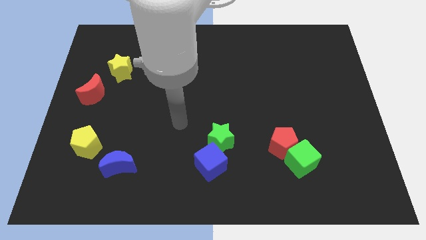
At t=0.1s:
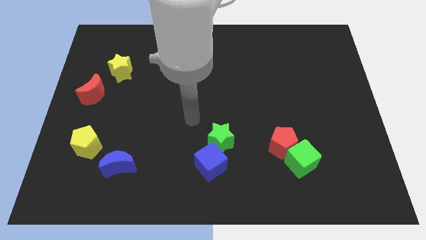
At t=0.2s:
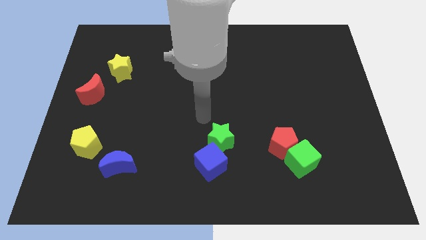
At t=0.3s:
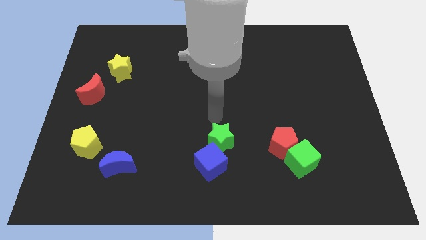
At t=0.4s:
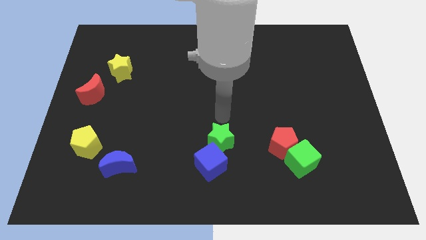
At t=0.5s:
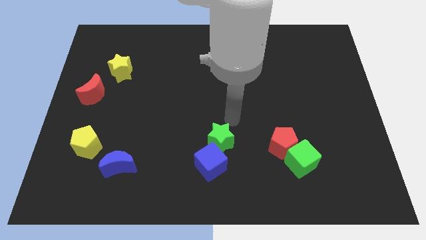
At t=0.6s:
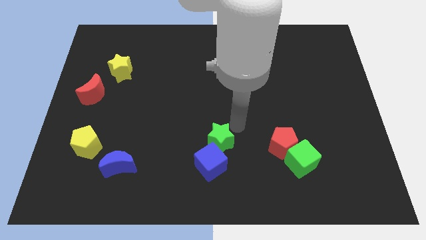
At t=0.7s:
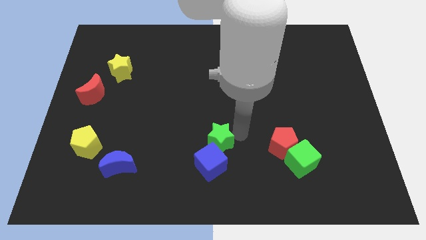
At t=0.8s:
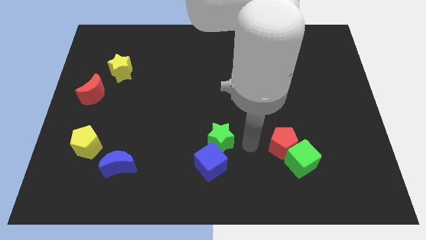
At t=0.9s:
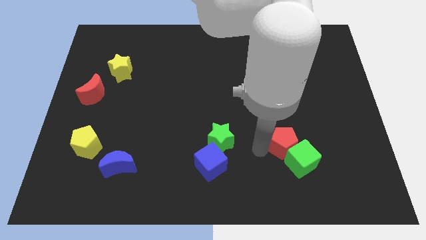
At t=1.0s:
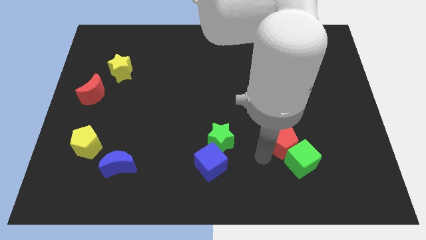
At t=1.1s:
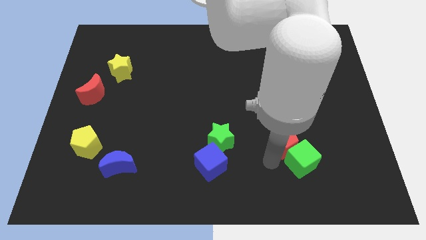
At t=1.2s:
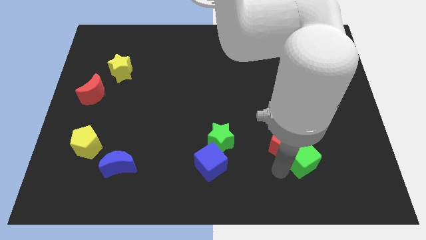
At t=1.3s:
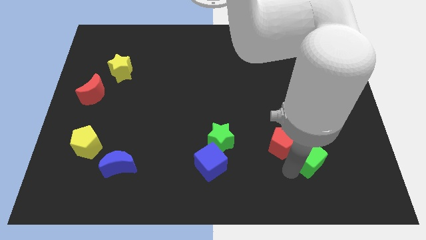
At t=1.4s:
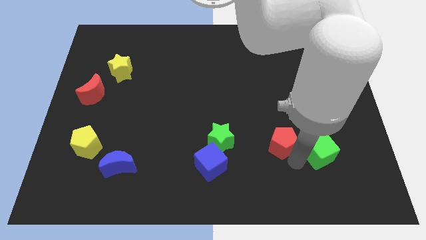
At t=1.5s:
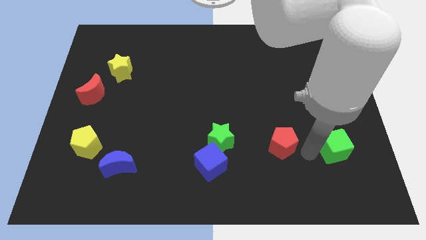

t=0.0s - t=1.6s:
separate the red pentagon from the green cube

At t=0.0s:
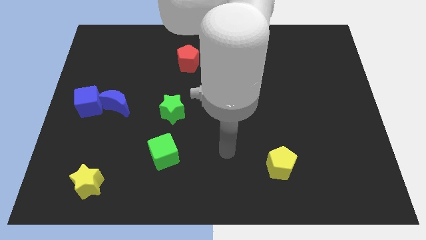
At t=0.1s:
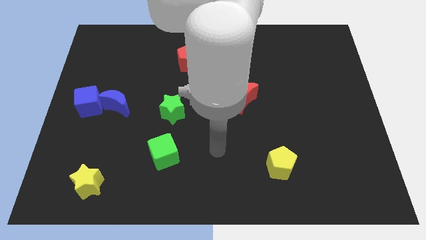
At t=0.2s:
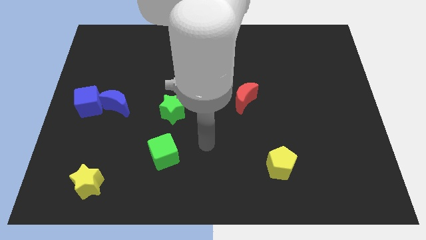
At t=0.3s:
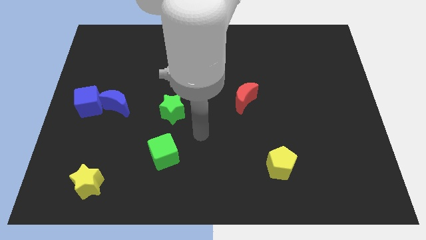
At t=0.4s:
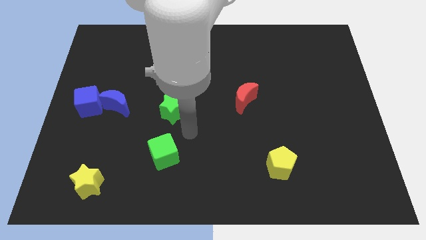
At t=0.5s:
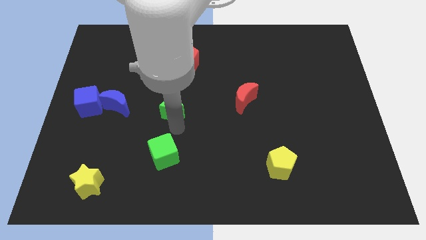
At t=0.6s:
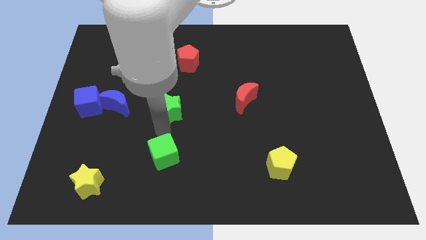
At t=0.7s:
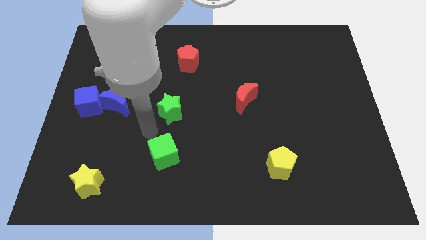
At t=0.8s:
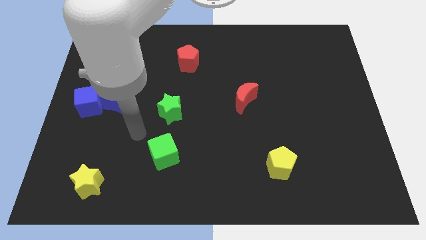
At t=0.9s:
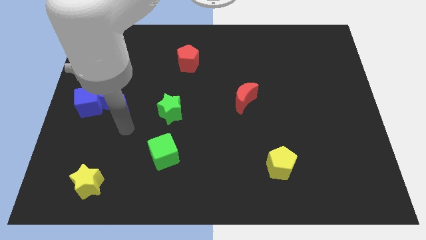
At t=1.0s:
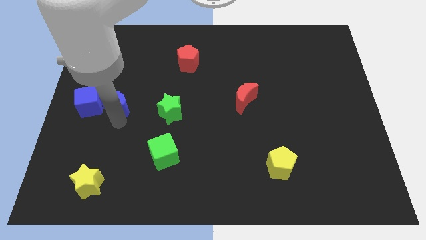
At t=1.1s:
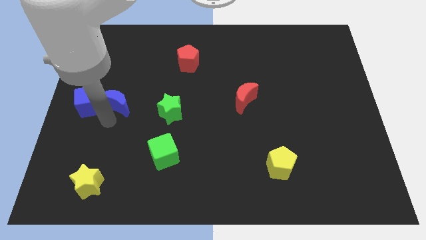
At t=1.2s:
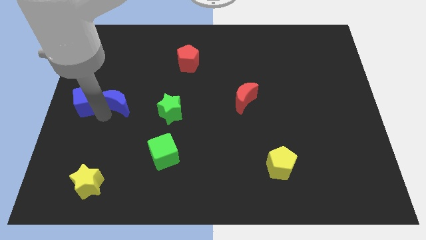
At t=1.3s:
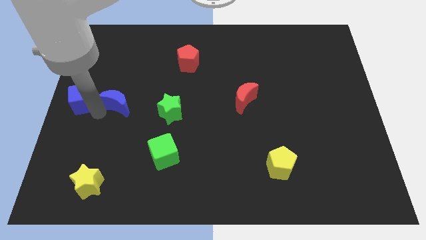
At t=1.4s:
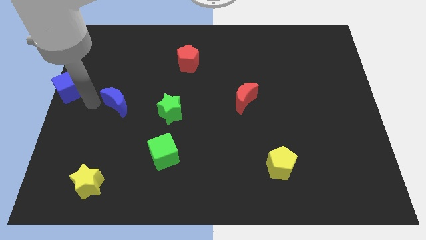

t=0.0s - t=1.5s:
separate the blue moon from the blue cube

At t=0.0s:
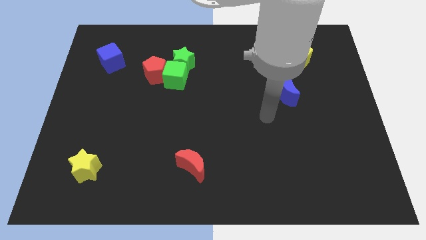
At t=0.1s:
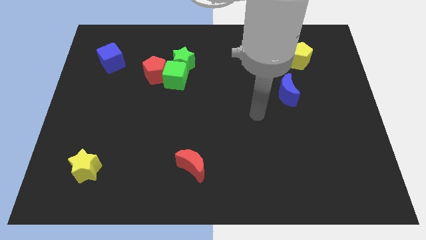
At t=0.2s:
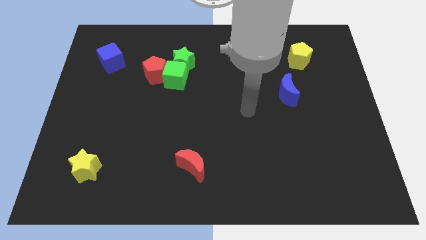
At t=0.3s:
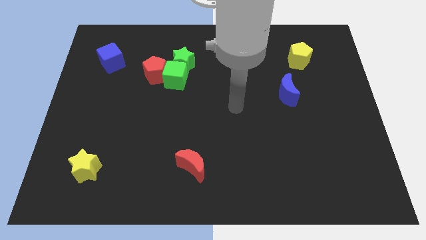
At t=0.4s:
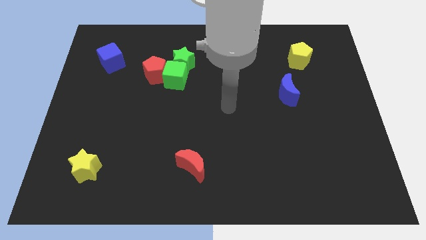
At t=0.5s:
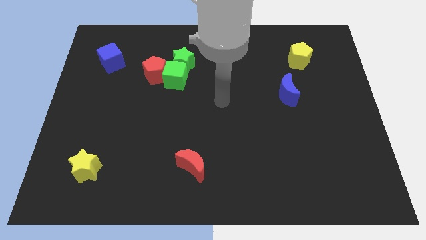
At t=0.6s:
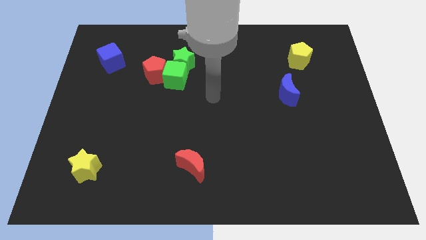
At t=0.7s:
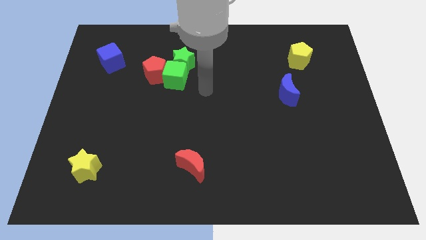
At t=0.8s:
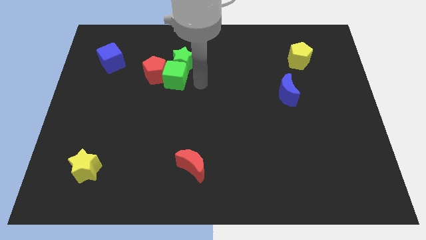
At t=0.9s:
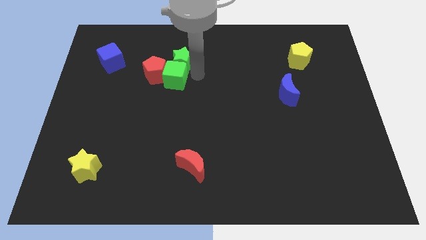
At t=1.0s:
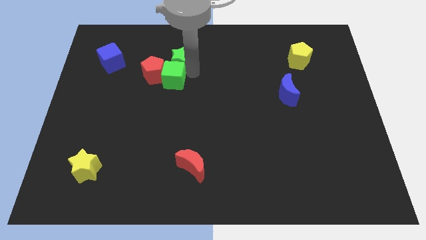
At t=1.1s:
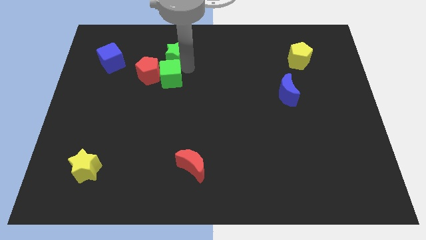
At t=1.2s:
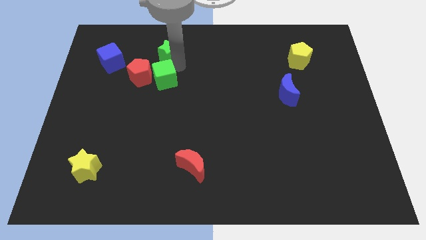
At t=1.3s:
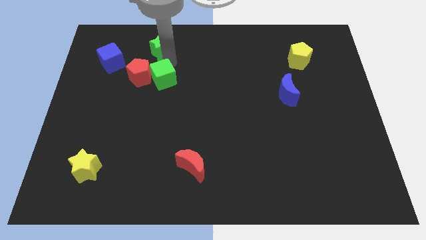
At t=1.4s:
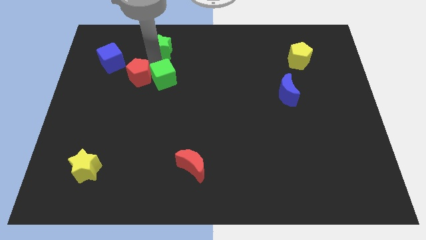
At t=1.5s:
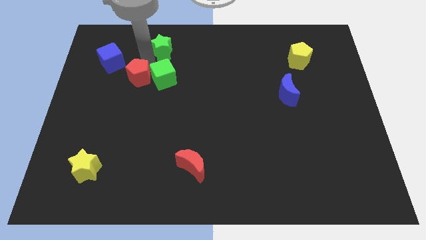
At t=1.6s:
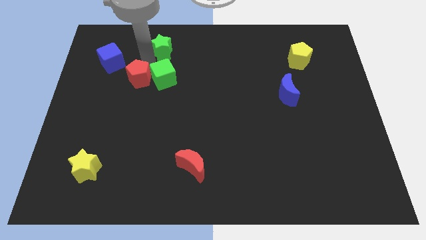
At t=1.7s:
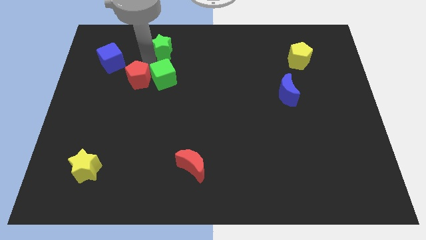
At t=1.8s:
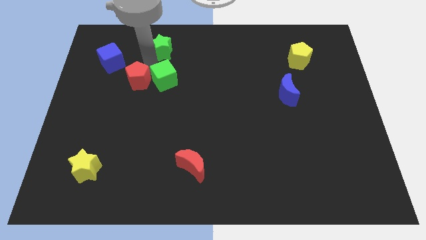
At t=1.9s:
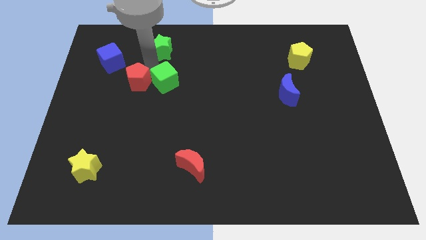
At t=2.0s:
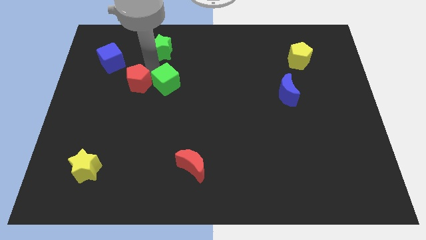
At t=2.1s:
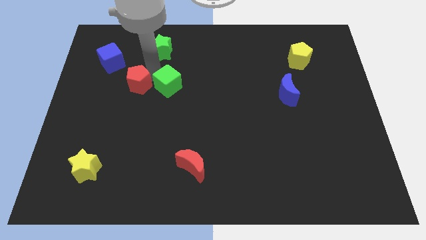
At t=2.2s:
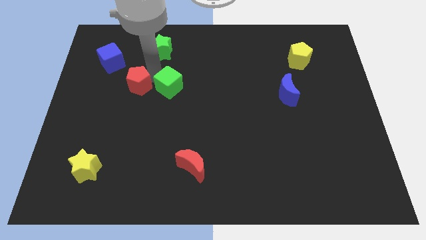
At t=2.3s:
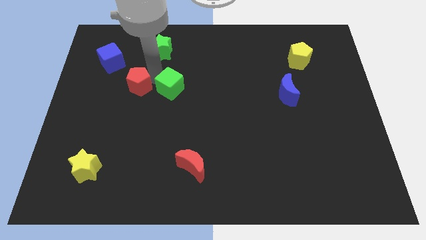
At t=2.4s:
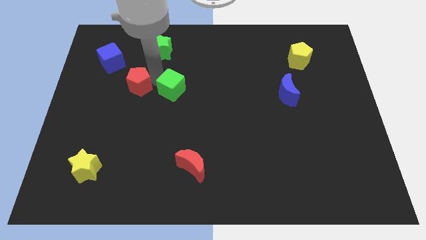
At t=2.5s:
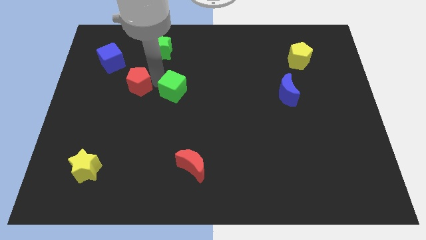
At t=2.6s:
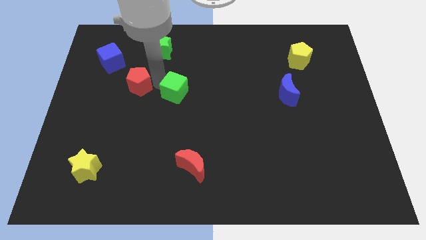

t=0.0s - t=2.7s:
separate the green cube from the green star and red pentagon

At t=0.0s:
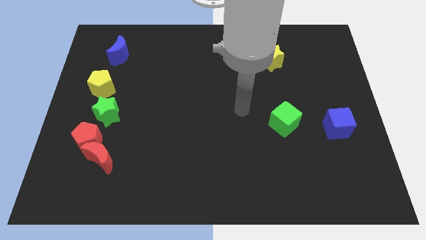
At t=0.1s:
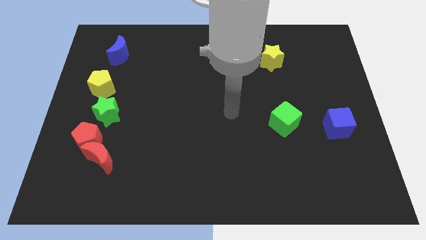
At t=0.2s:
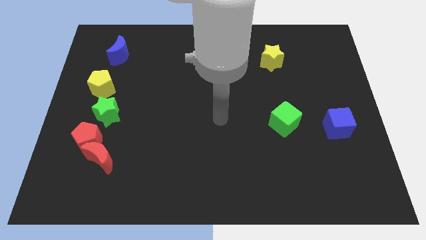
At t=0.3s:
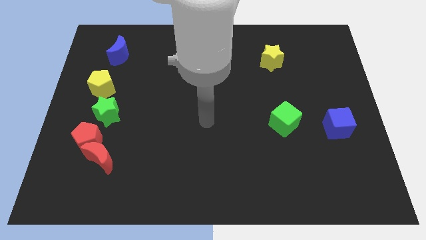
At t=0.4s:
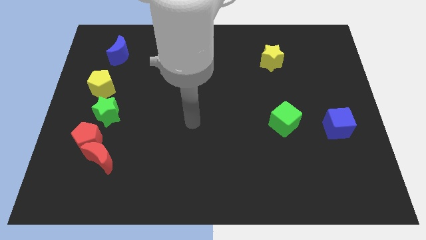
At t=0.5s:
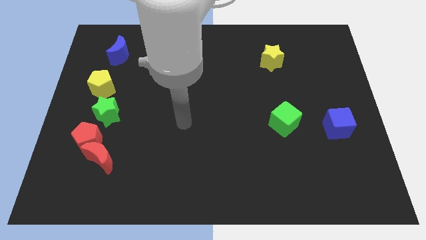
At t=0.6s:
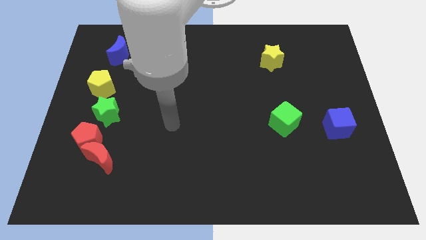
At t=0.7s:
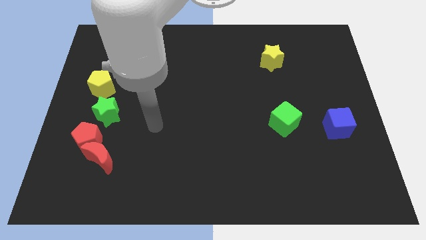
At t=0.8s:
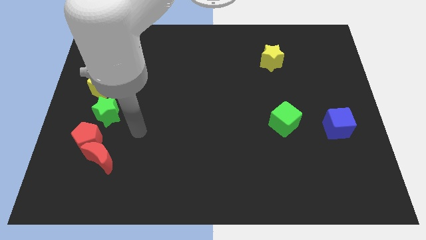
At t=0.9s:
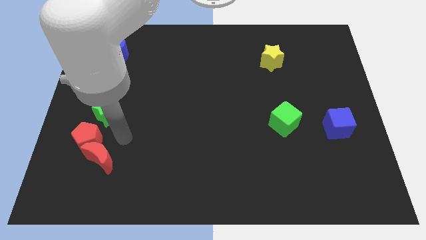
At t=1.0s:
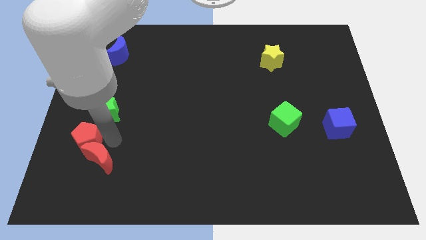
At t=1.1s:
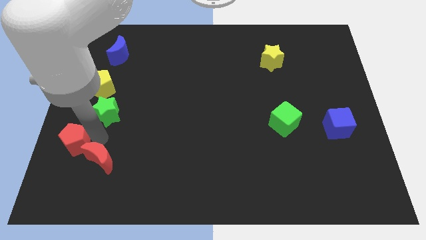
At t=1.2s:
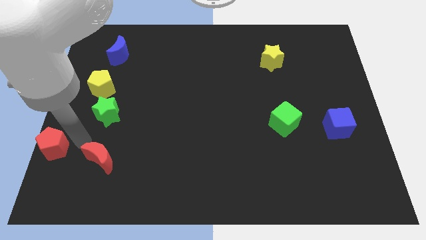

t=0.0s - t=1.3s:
separate the red moon from the red pentagon

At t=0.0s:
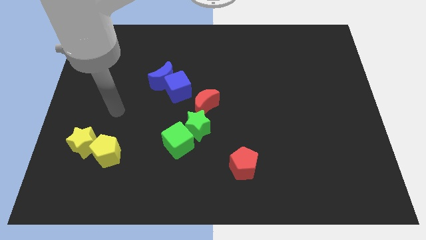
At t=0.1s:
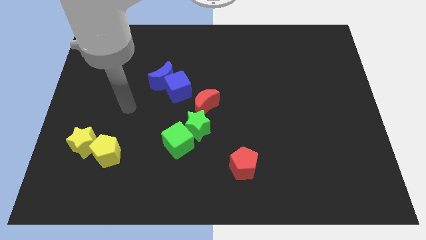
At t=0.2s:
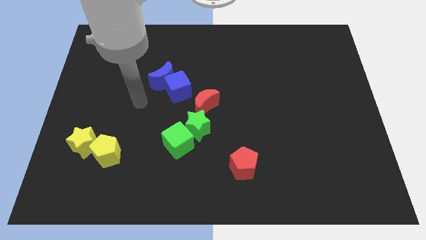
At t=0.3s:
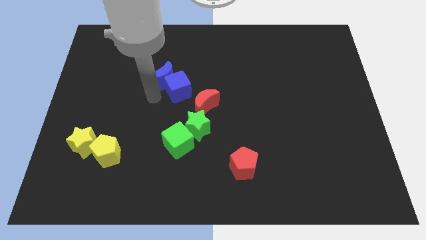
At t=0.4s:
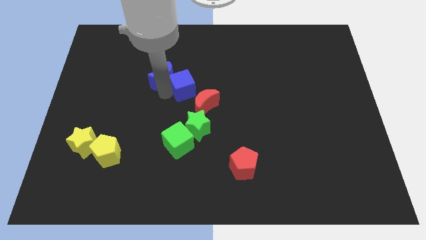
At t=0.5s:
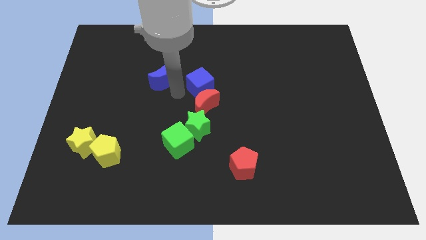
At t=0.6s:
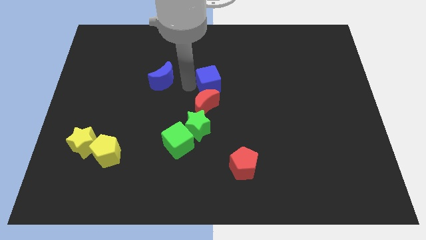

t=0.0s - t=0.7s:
pull the blue moon apart from the blue cube

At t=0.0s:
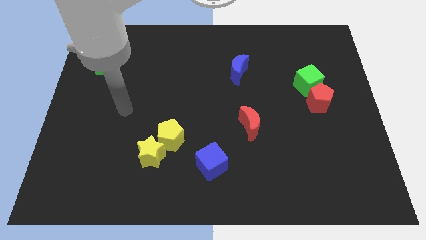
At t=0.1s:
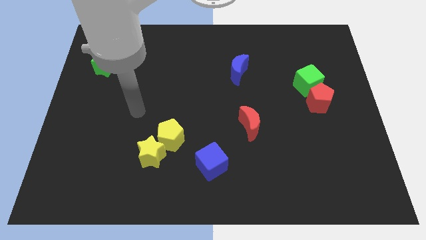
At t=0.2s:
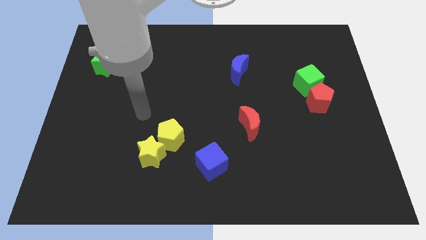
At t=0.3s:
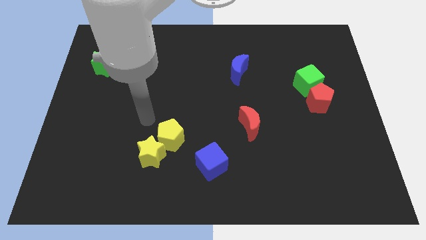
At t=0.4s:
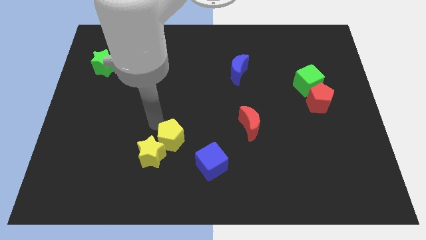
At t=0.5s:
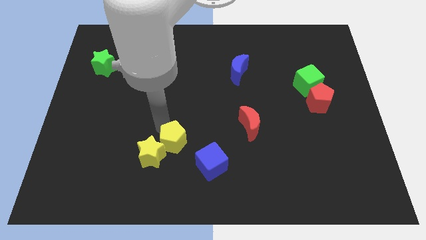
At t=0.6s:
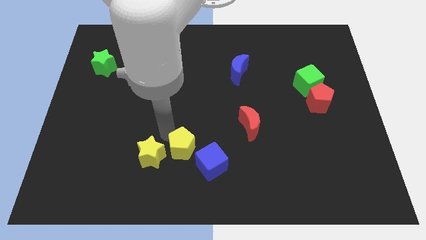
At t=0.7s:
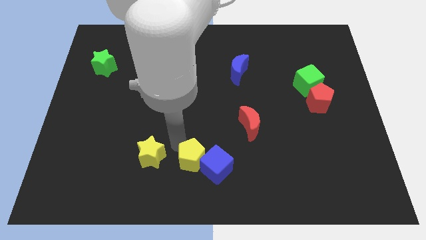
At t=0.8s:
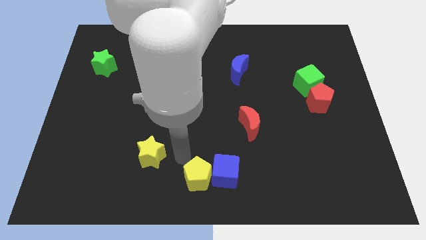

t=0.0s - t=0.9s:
separate the yellow star from the yellow pentagon

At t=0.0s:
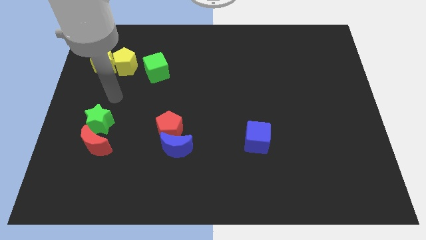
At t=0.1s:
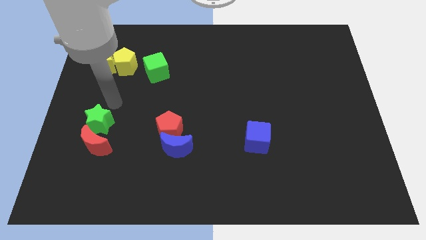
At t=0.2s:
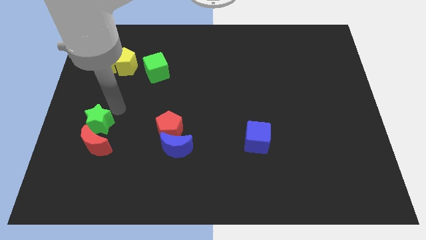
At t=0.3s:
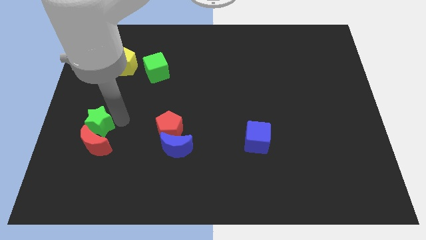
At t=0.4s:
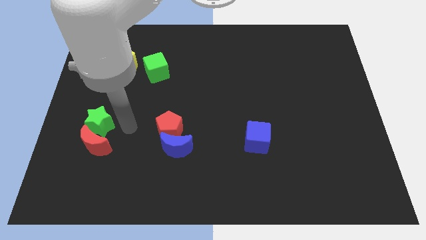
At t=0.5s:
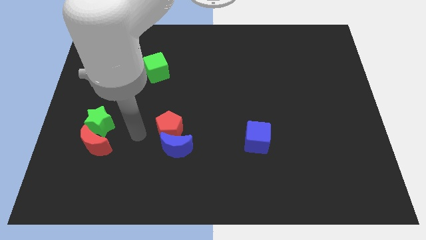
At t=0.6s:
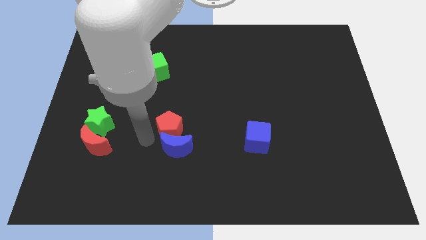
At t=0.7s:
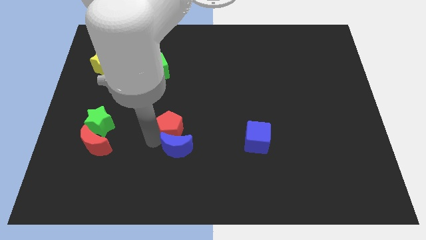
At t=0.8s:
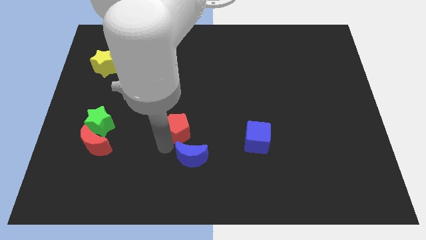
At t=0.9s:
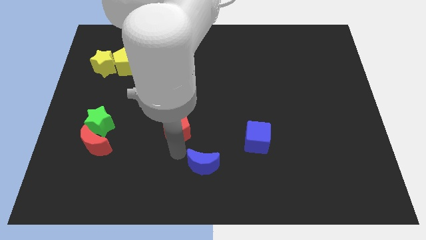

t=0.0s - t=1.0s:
move the red pentagon away from the blue moon
